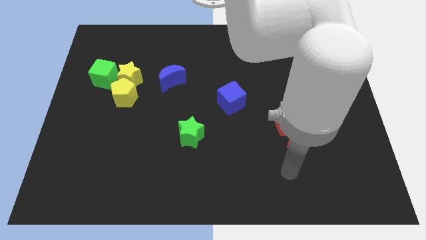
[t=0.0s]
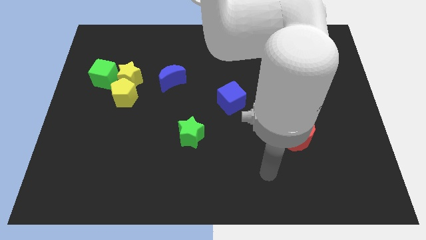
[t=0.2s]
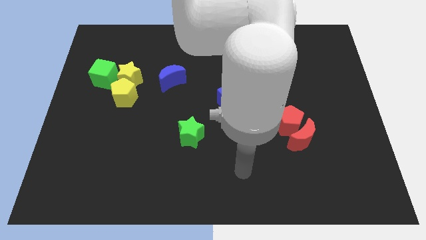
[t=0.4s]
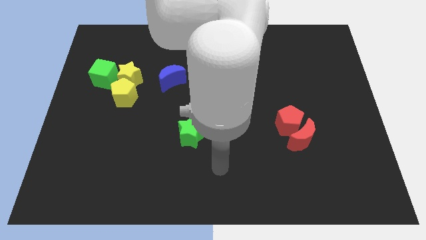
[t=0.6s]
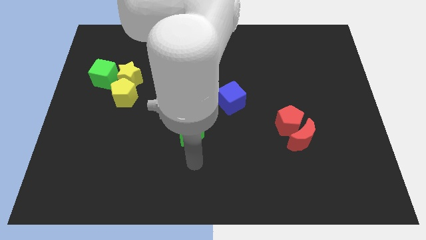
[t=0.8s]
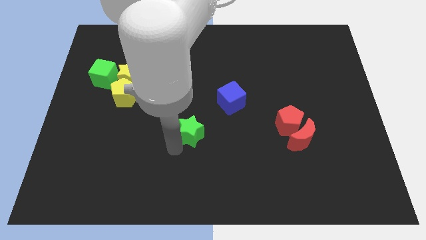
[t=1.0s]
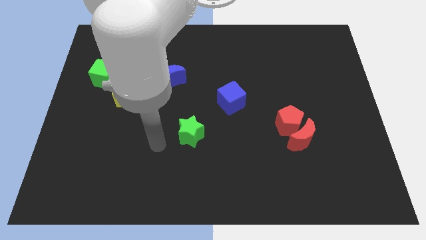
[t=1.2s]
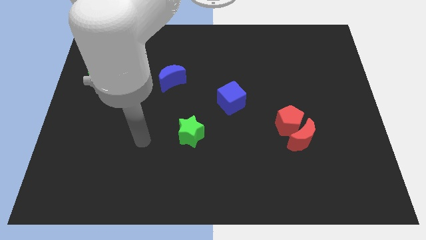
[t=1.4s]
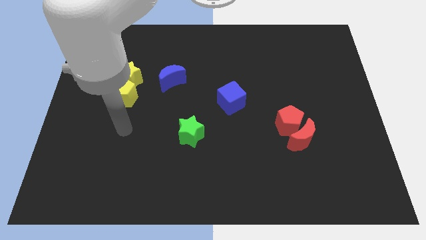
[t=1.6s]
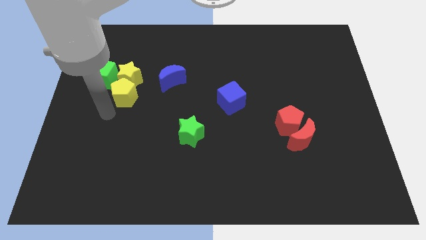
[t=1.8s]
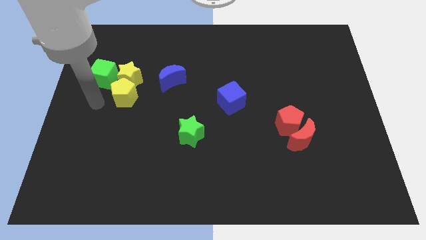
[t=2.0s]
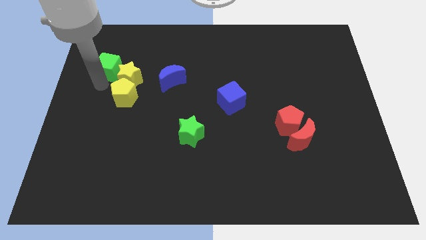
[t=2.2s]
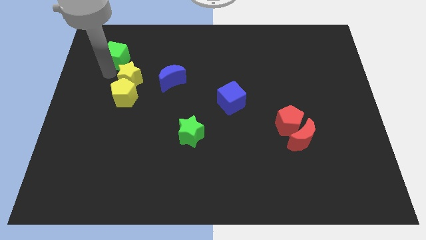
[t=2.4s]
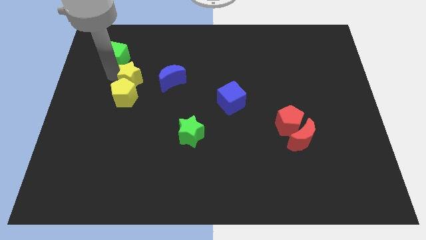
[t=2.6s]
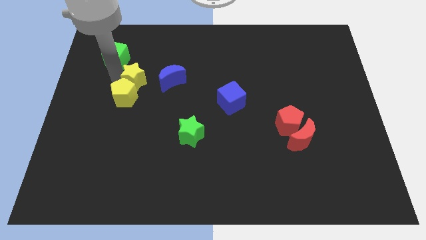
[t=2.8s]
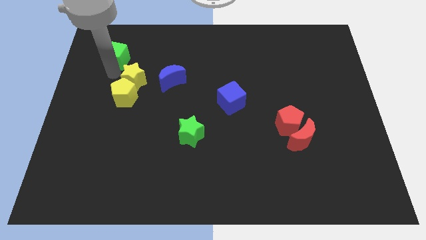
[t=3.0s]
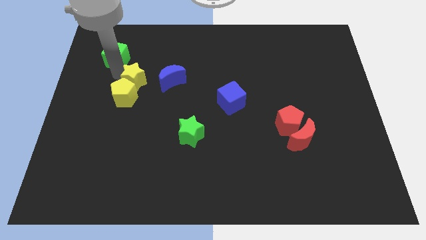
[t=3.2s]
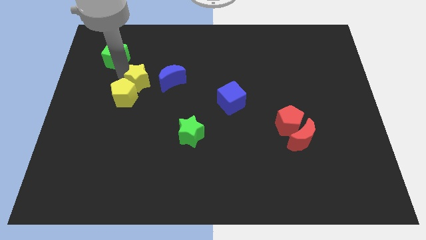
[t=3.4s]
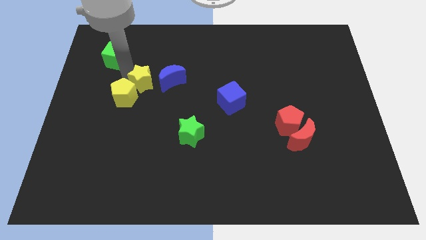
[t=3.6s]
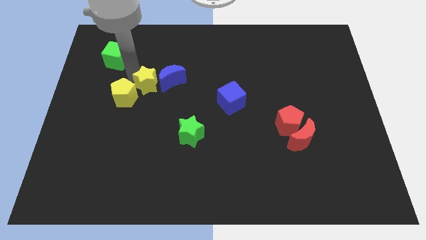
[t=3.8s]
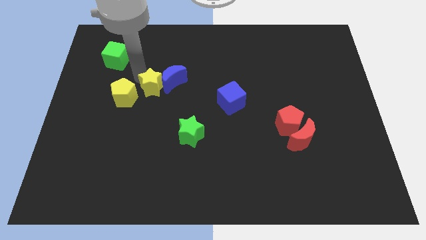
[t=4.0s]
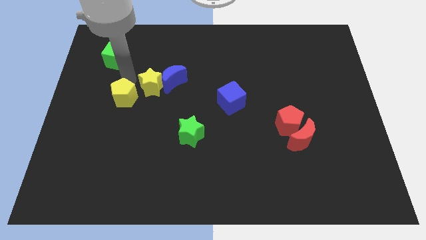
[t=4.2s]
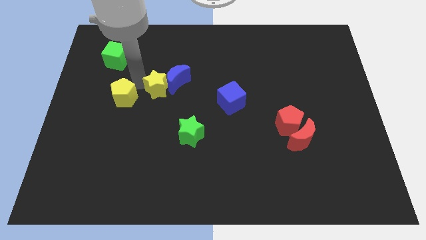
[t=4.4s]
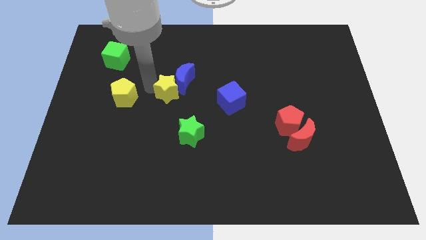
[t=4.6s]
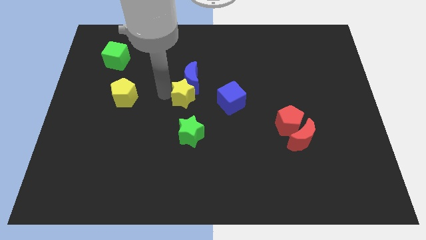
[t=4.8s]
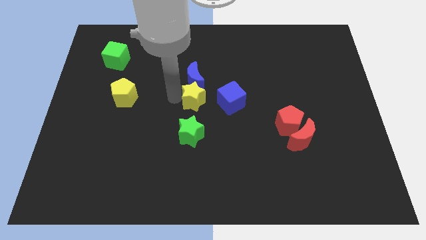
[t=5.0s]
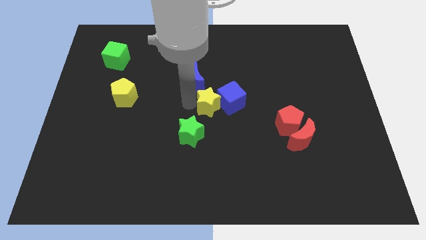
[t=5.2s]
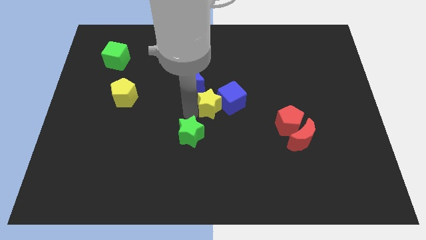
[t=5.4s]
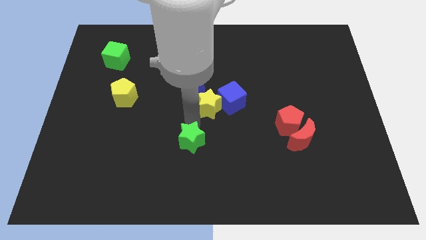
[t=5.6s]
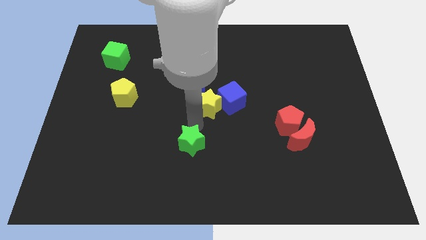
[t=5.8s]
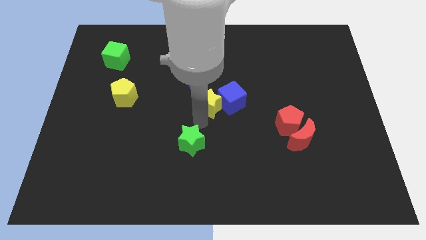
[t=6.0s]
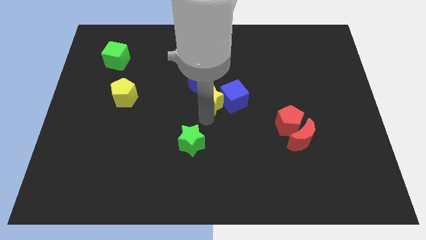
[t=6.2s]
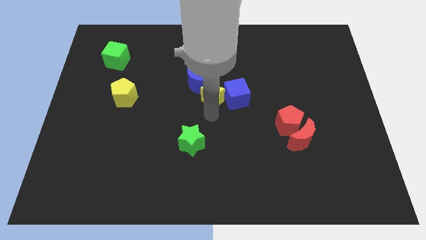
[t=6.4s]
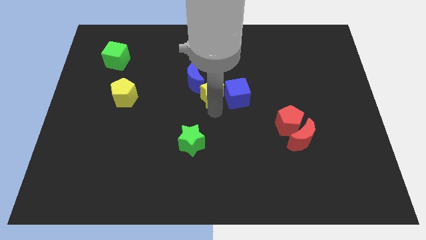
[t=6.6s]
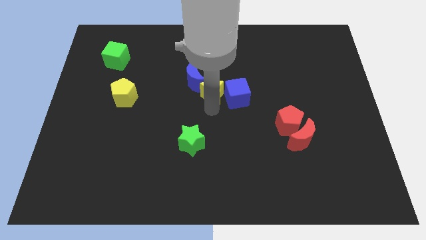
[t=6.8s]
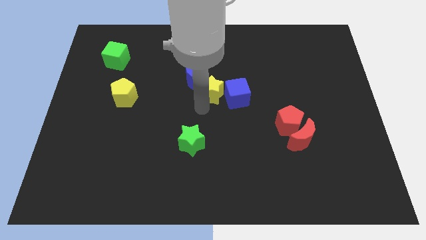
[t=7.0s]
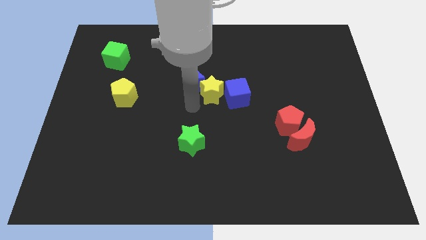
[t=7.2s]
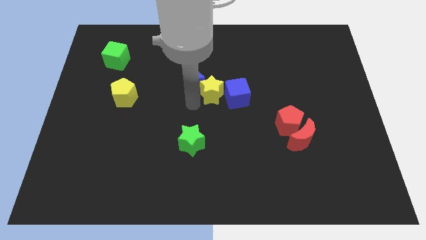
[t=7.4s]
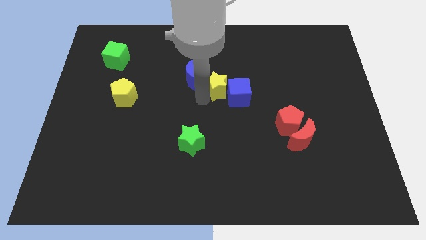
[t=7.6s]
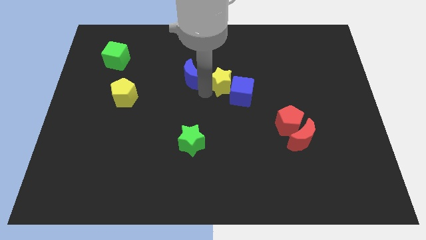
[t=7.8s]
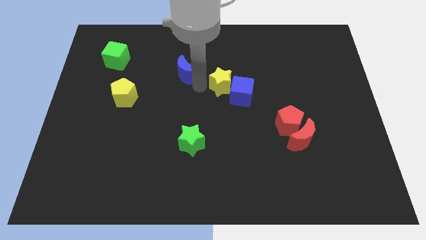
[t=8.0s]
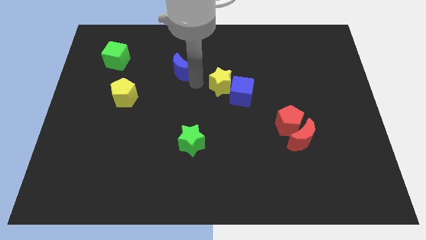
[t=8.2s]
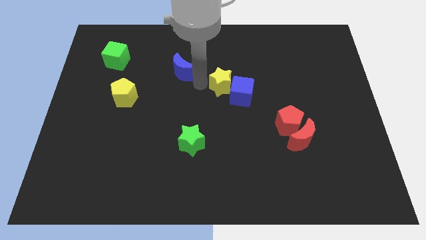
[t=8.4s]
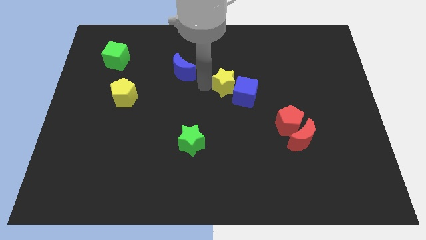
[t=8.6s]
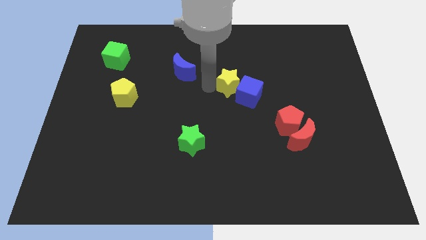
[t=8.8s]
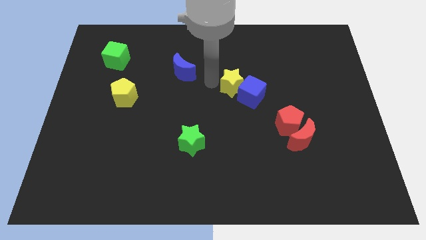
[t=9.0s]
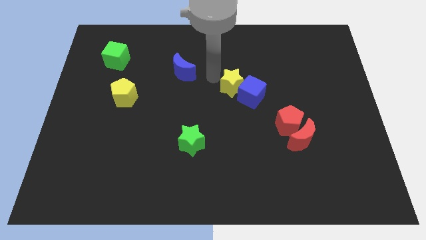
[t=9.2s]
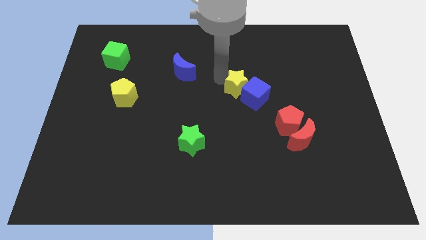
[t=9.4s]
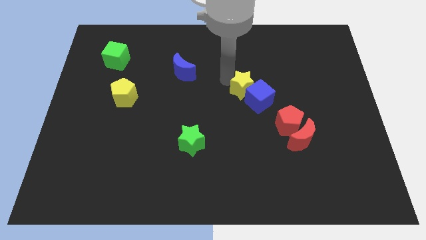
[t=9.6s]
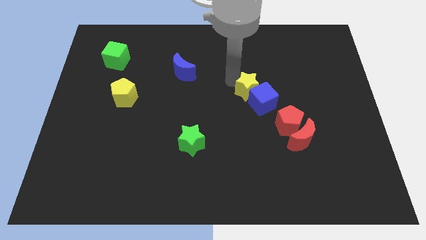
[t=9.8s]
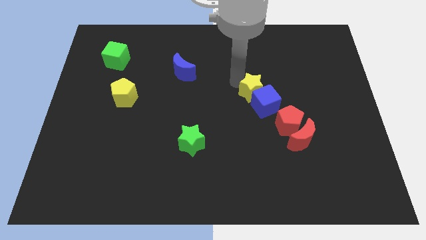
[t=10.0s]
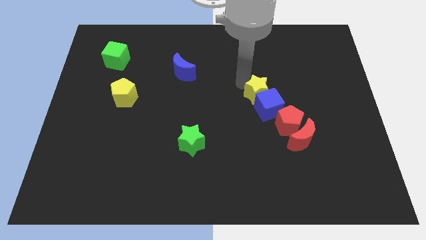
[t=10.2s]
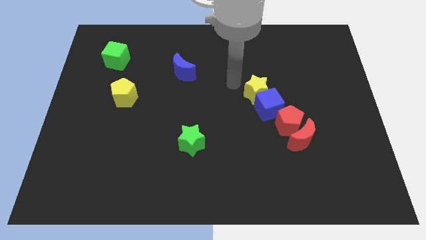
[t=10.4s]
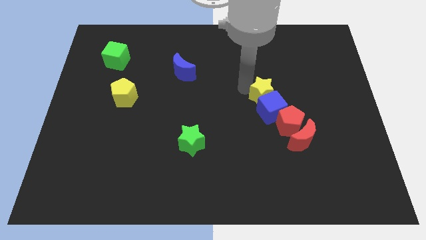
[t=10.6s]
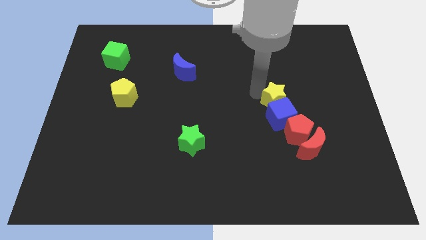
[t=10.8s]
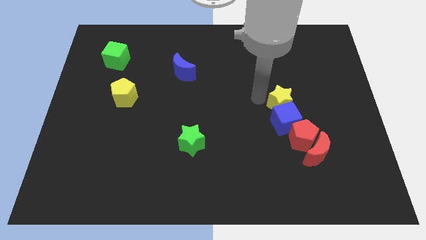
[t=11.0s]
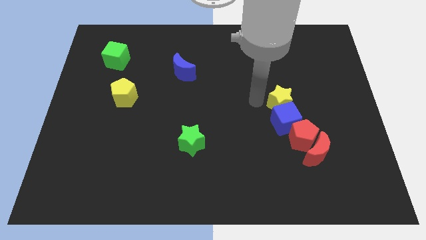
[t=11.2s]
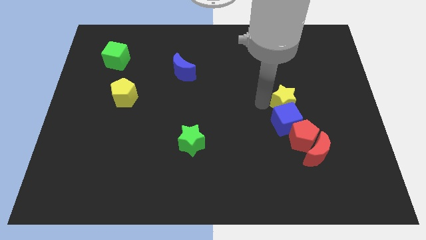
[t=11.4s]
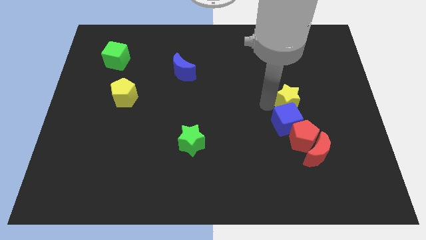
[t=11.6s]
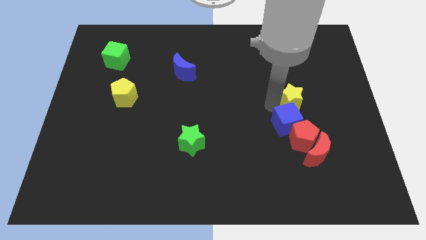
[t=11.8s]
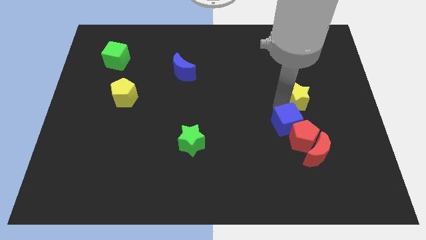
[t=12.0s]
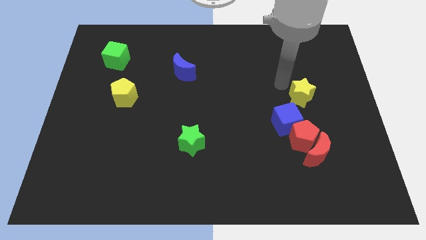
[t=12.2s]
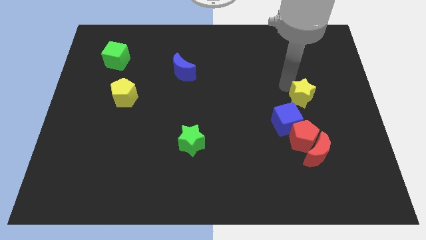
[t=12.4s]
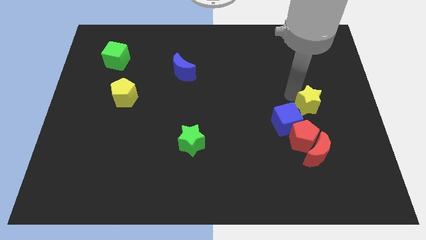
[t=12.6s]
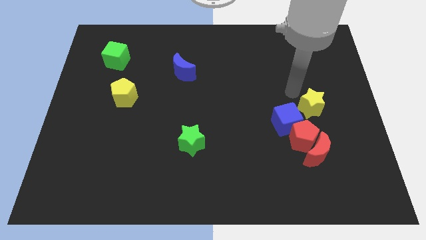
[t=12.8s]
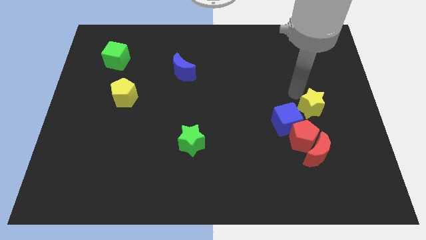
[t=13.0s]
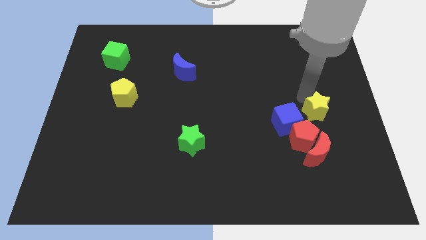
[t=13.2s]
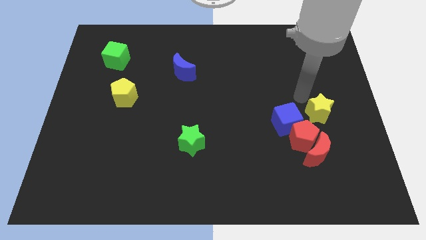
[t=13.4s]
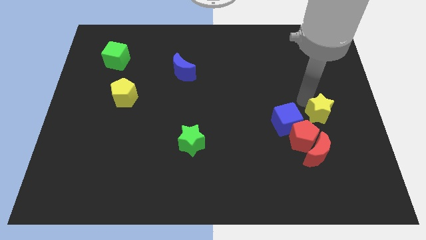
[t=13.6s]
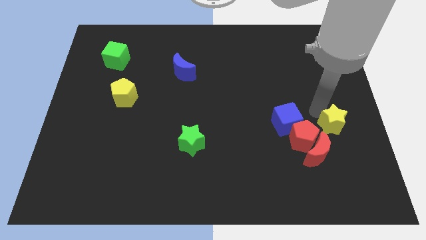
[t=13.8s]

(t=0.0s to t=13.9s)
move the yellow star just right of the red pentagon

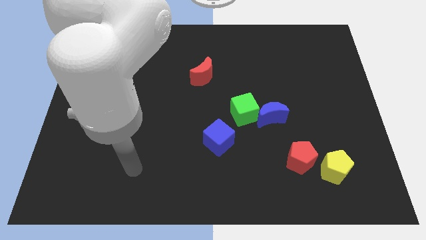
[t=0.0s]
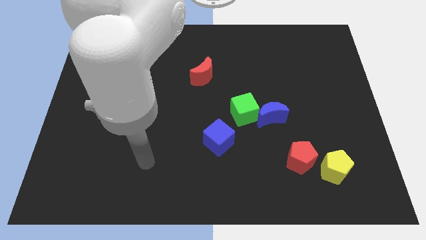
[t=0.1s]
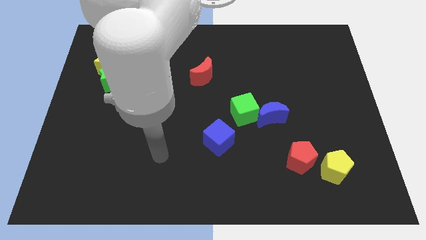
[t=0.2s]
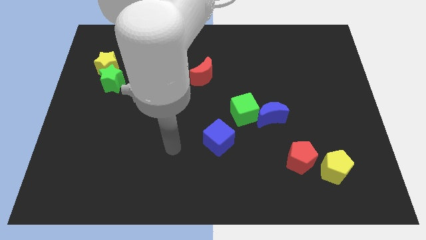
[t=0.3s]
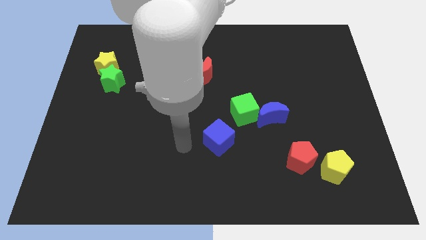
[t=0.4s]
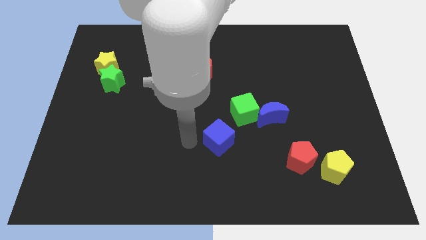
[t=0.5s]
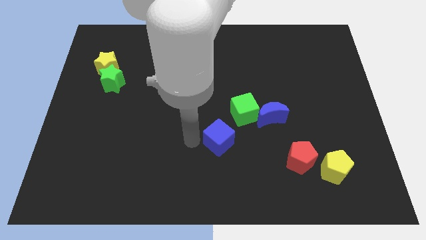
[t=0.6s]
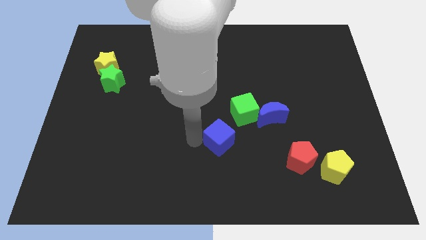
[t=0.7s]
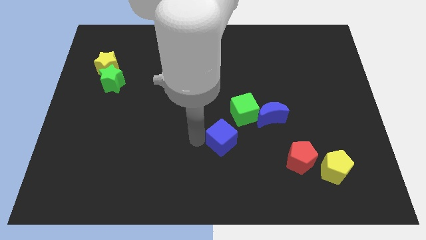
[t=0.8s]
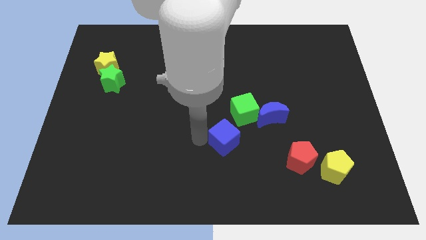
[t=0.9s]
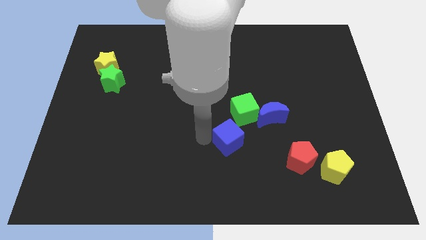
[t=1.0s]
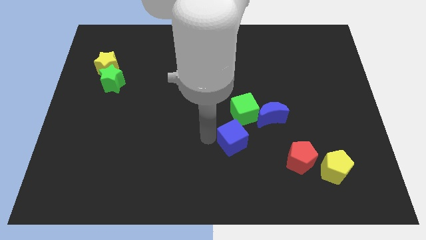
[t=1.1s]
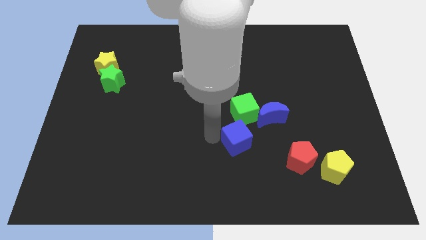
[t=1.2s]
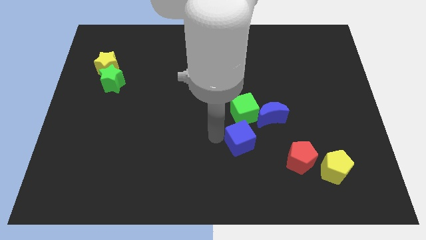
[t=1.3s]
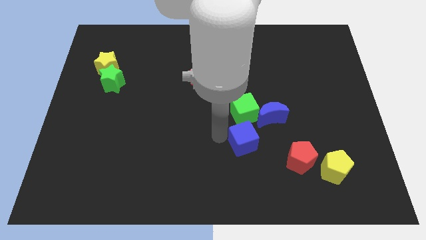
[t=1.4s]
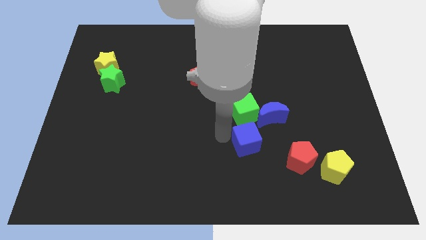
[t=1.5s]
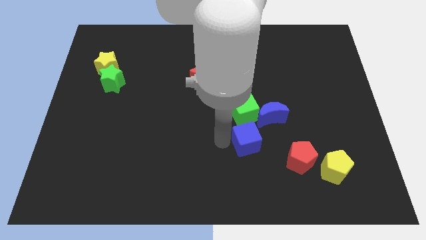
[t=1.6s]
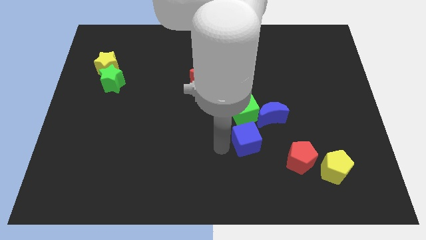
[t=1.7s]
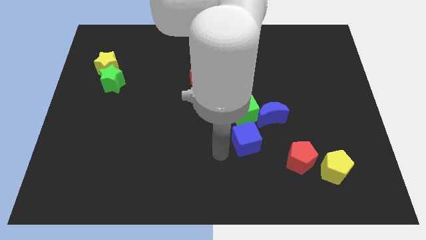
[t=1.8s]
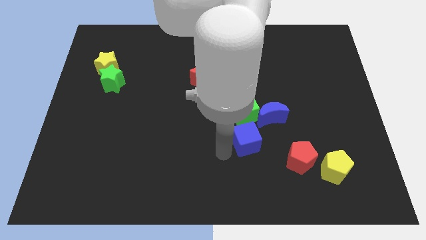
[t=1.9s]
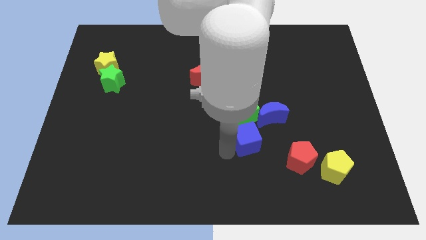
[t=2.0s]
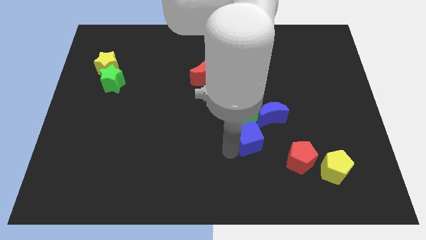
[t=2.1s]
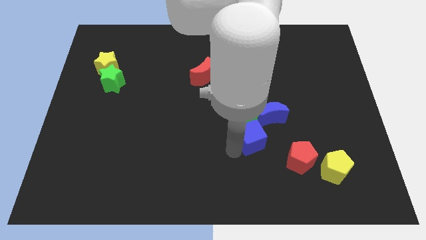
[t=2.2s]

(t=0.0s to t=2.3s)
move the blue cube diagonally down and to the right of the green cube
